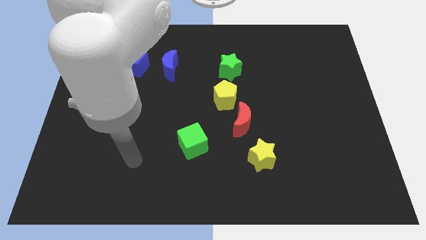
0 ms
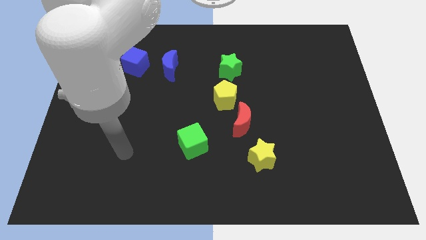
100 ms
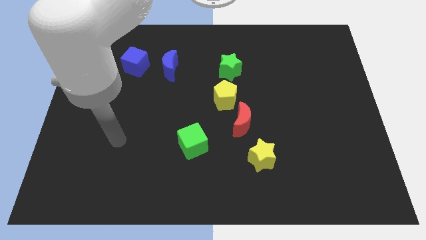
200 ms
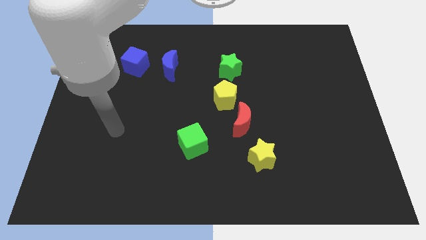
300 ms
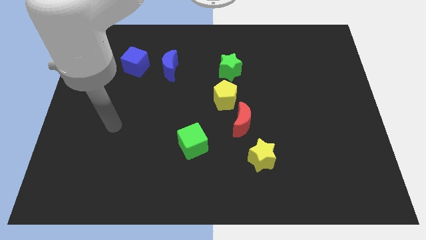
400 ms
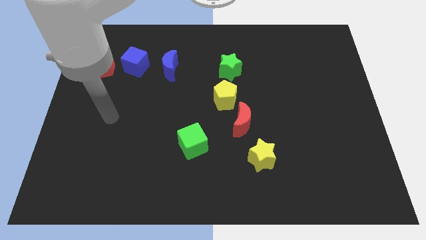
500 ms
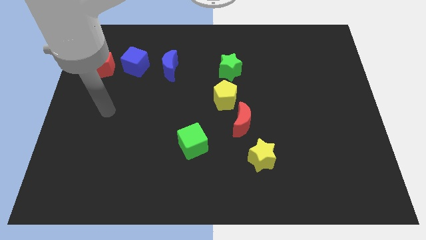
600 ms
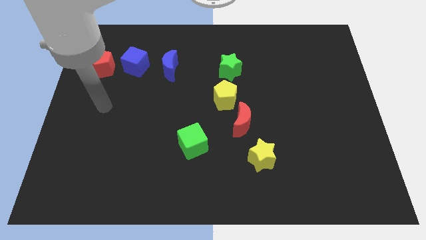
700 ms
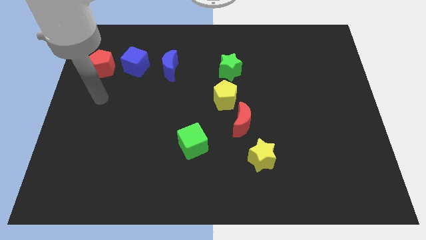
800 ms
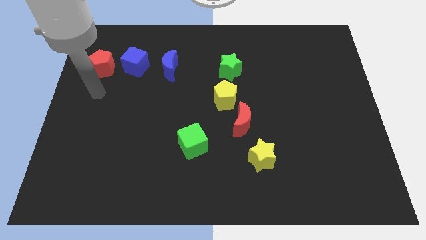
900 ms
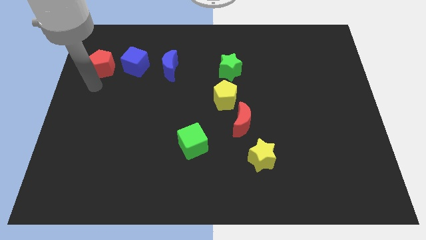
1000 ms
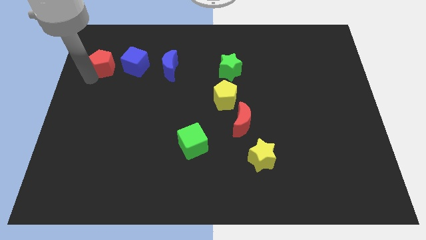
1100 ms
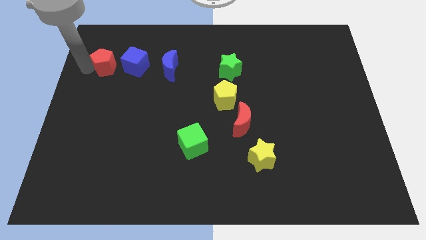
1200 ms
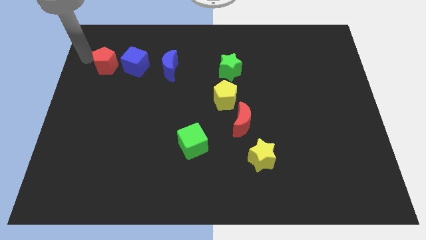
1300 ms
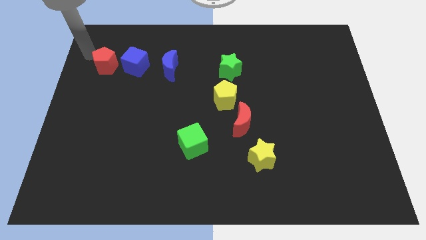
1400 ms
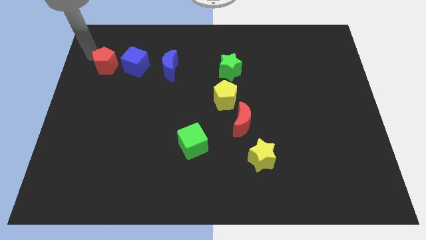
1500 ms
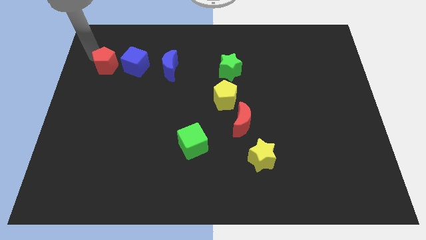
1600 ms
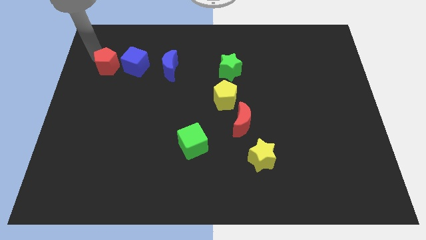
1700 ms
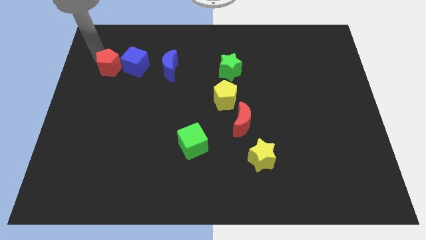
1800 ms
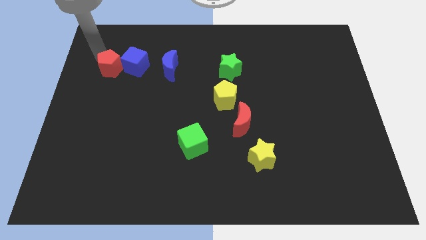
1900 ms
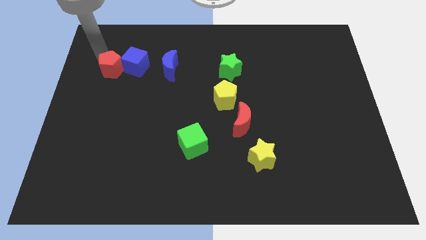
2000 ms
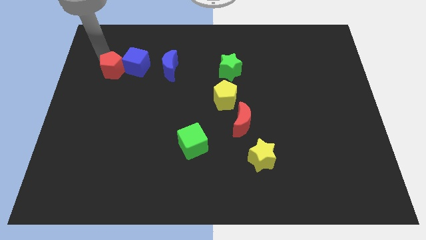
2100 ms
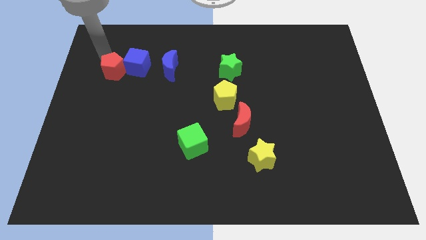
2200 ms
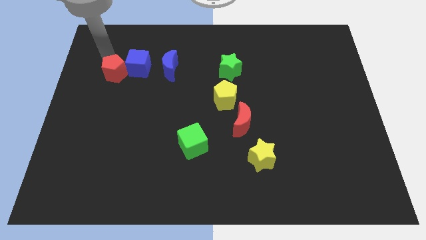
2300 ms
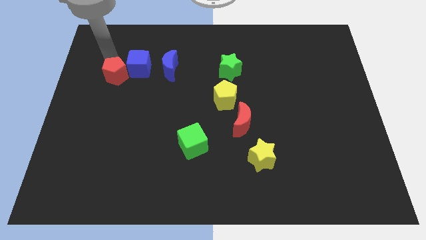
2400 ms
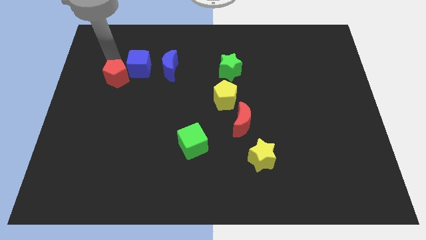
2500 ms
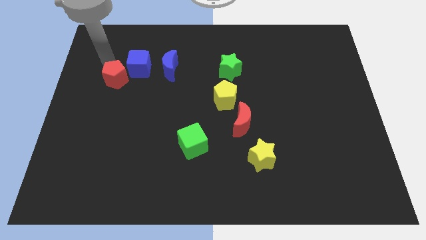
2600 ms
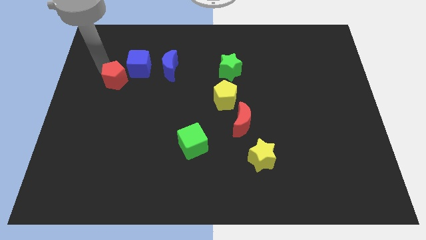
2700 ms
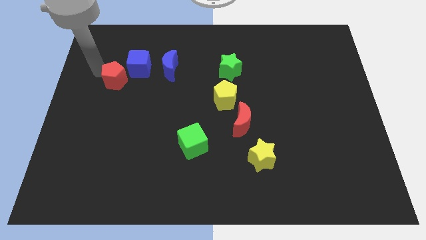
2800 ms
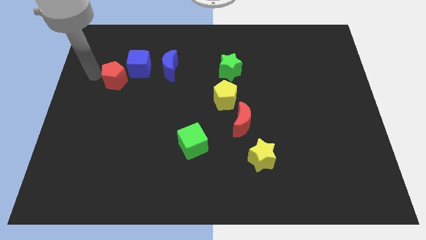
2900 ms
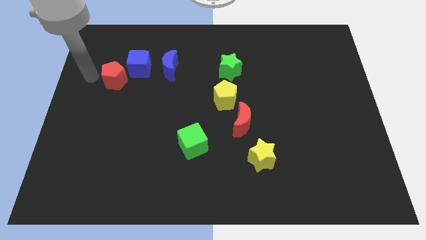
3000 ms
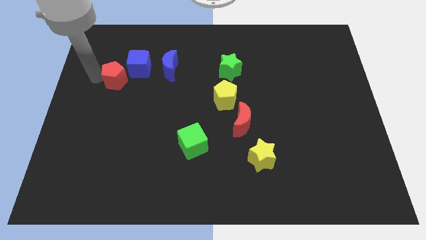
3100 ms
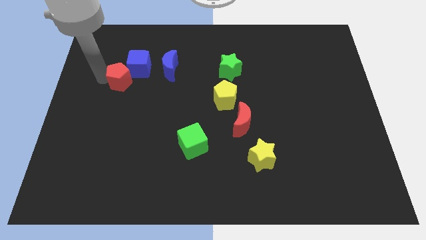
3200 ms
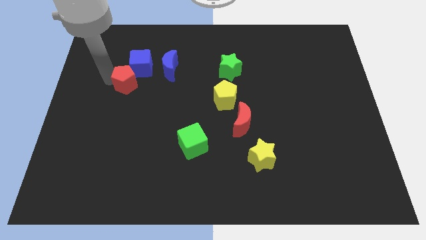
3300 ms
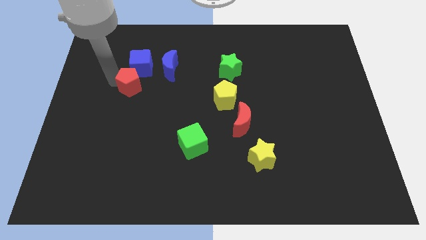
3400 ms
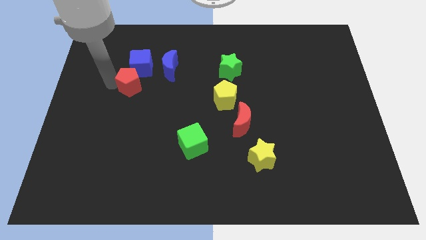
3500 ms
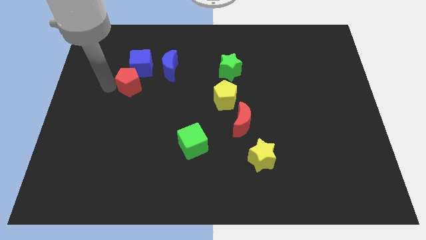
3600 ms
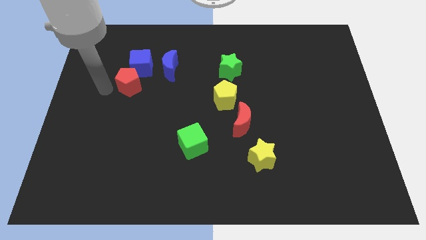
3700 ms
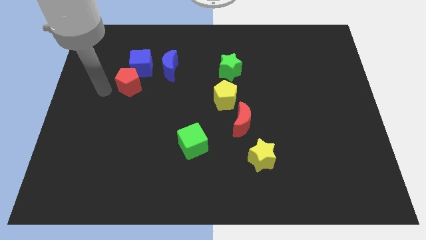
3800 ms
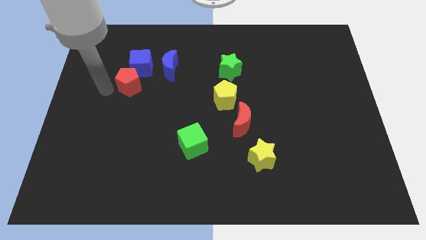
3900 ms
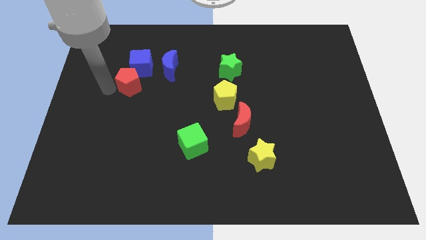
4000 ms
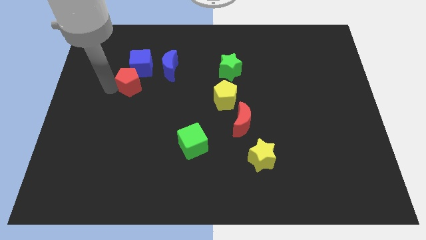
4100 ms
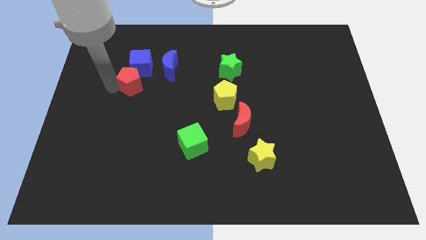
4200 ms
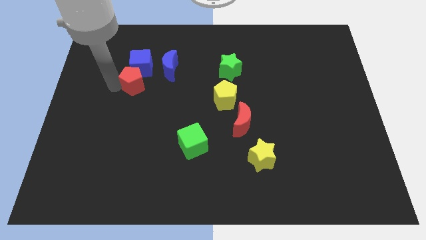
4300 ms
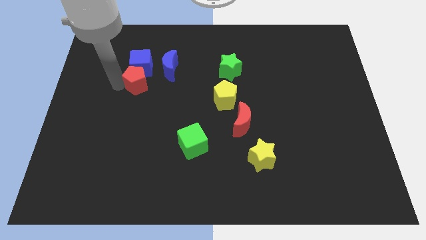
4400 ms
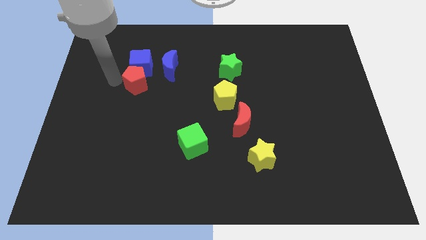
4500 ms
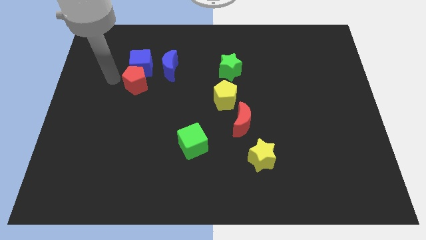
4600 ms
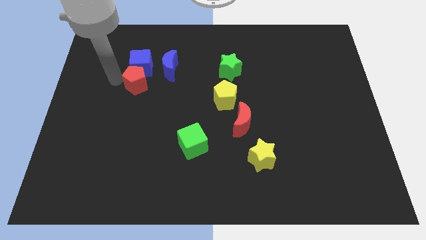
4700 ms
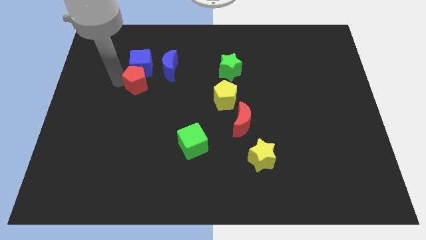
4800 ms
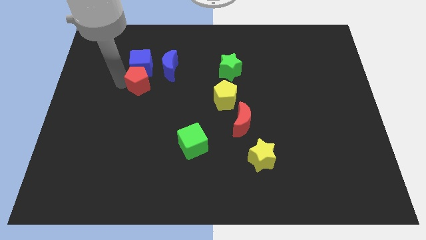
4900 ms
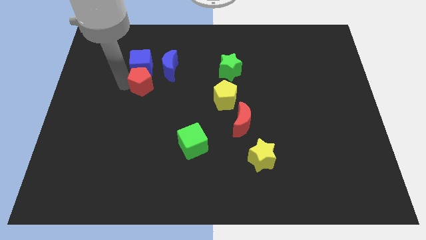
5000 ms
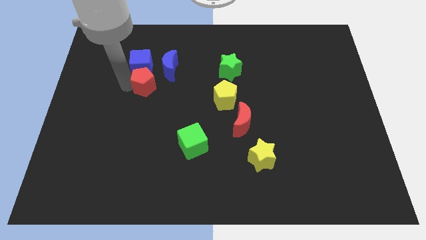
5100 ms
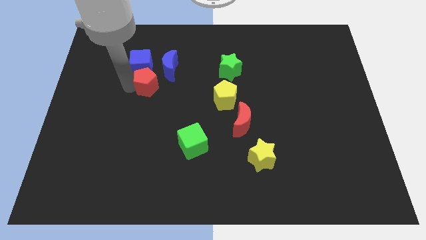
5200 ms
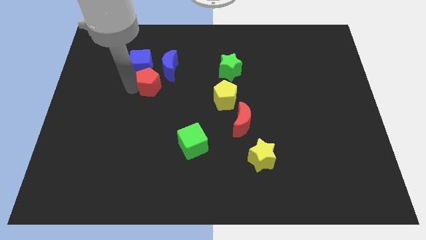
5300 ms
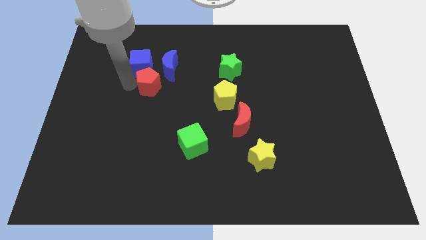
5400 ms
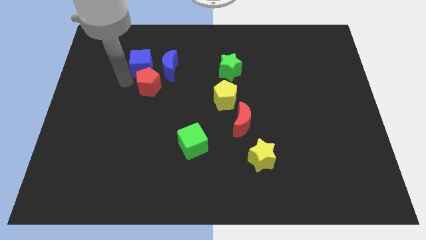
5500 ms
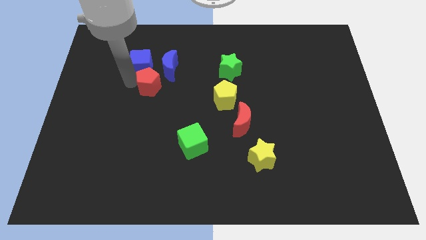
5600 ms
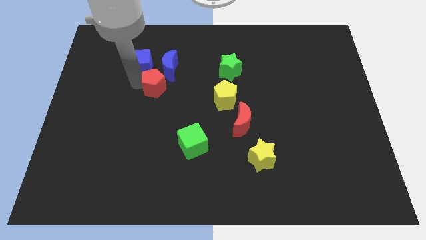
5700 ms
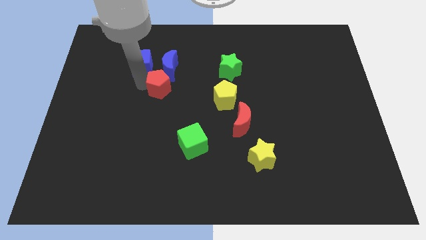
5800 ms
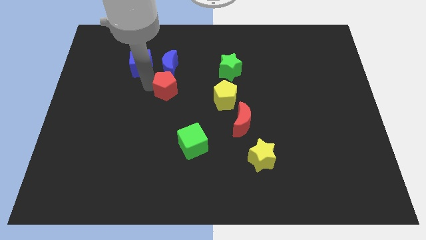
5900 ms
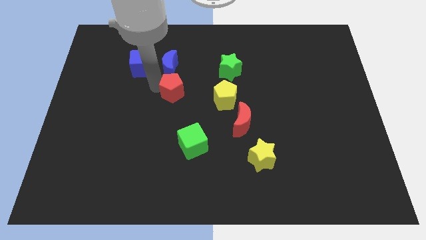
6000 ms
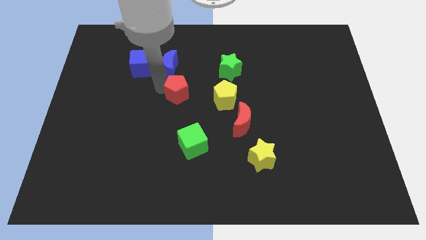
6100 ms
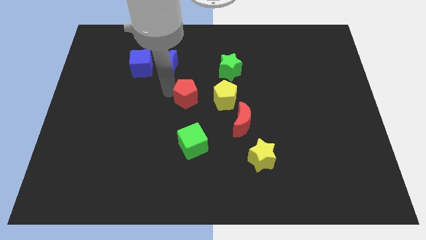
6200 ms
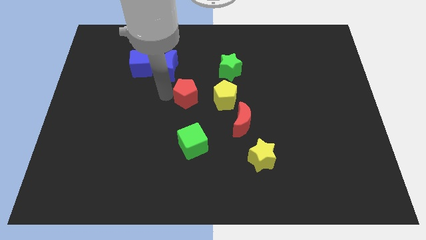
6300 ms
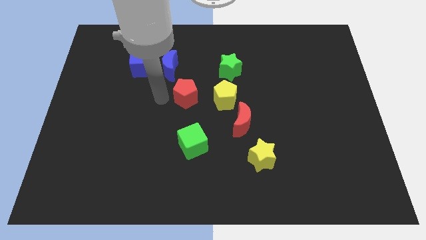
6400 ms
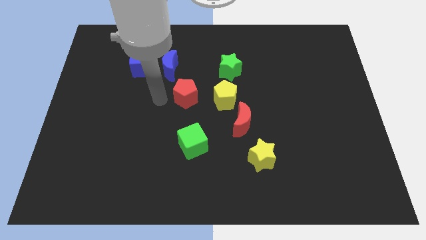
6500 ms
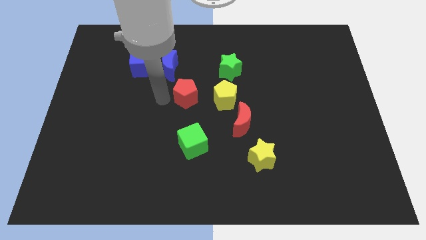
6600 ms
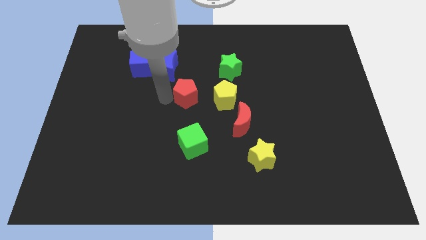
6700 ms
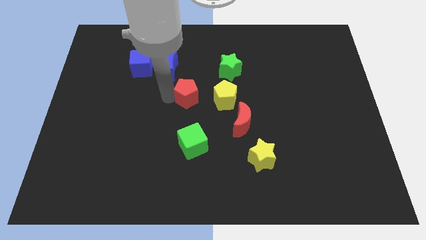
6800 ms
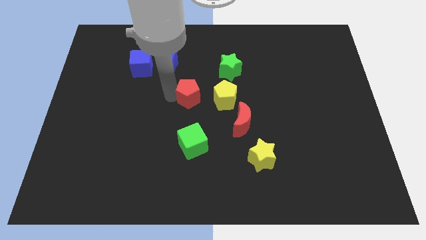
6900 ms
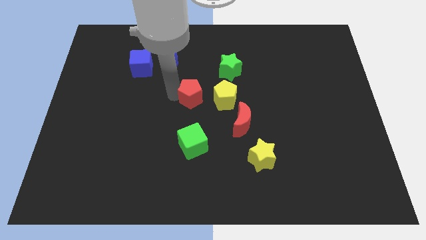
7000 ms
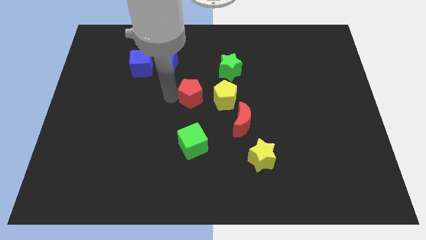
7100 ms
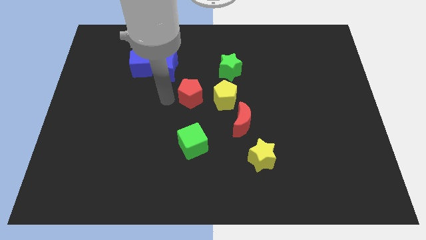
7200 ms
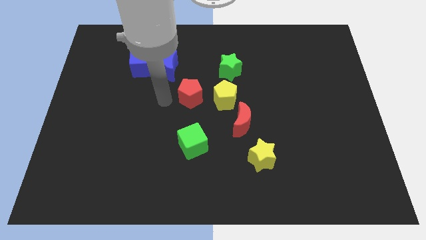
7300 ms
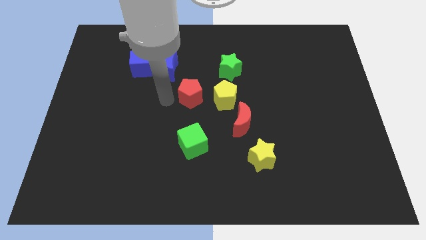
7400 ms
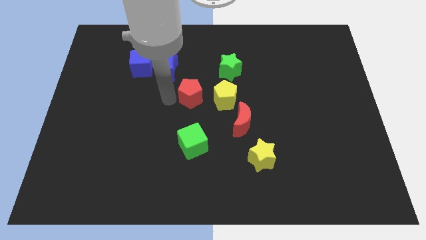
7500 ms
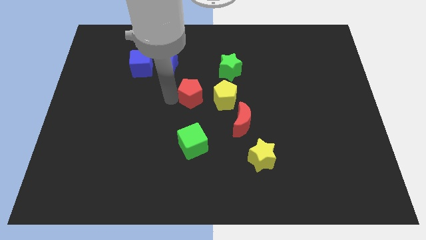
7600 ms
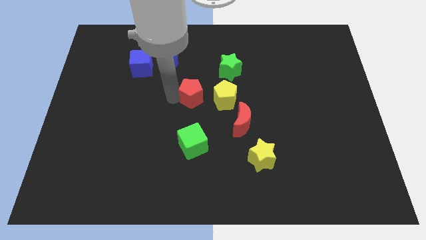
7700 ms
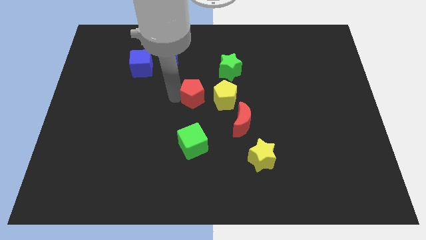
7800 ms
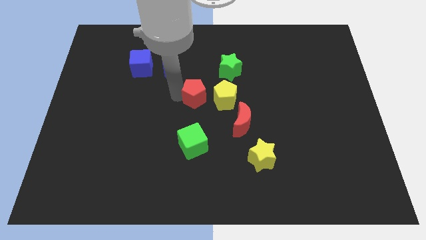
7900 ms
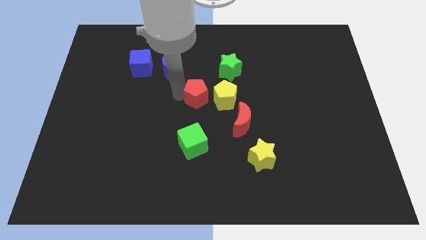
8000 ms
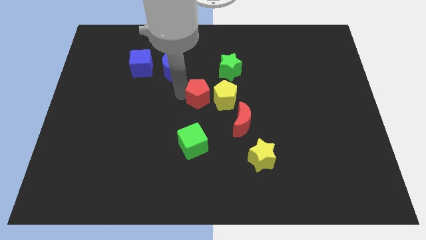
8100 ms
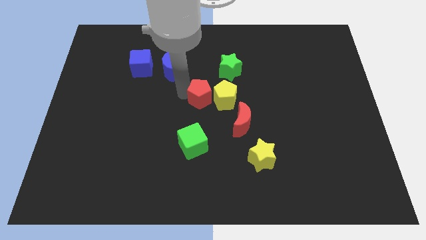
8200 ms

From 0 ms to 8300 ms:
move the red pentagon towards the yellow pentagon
